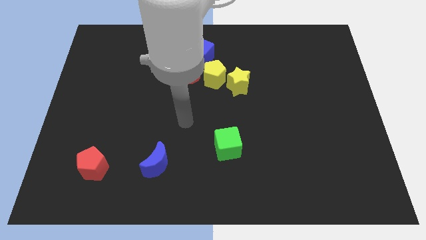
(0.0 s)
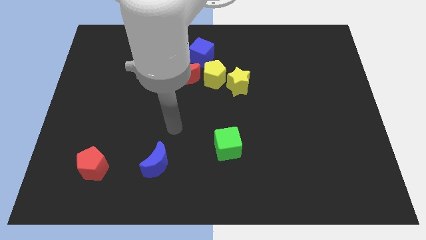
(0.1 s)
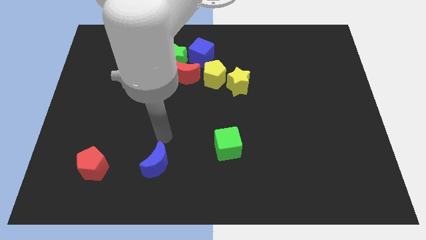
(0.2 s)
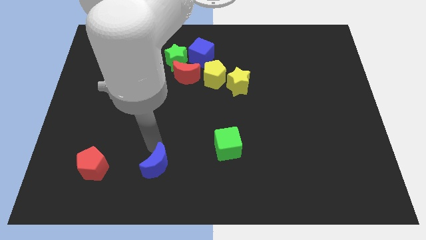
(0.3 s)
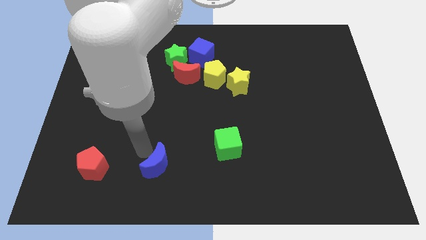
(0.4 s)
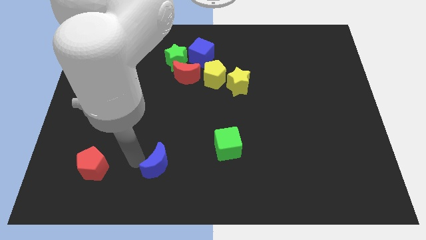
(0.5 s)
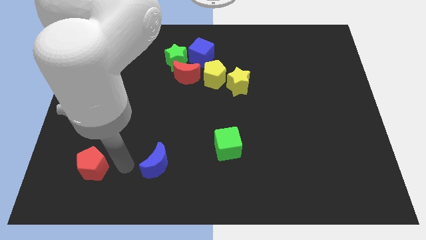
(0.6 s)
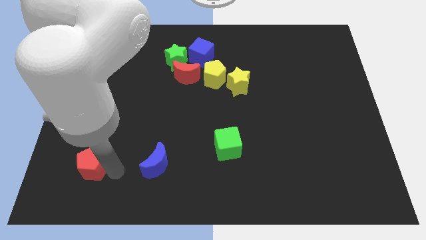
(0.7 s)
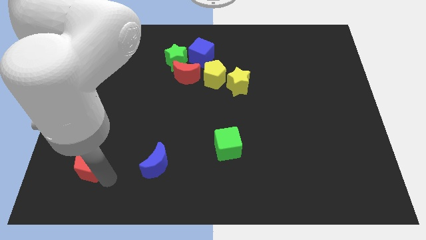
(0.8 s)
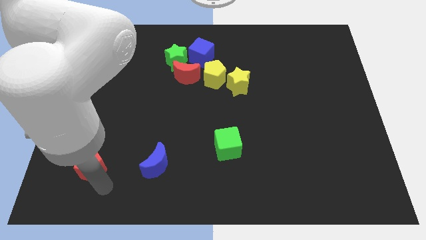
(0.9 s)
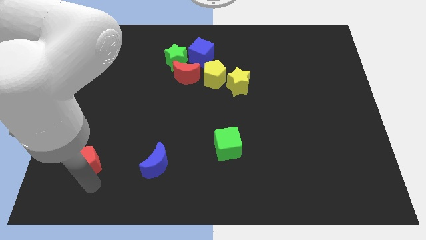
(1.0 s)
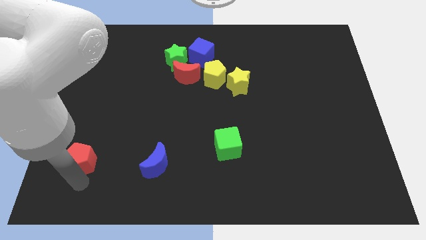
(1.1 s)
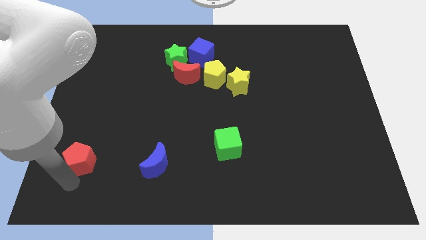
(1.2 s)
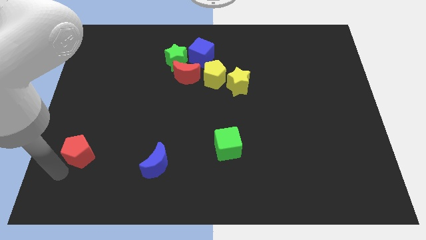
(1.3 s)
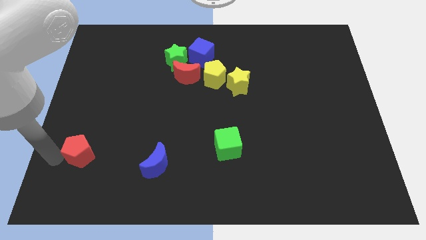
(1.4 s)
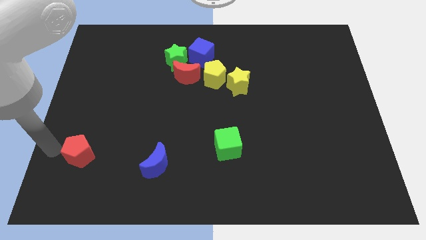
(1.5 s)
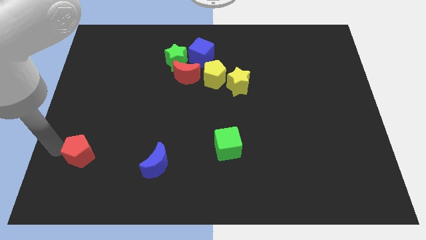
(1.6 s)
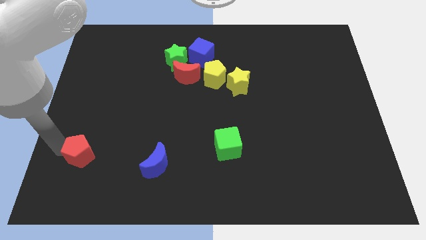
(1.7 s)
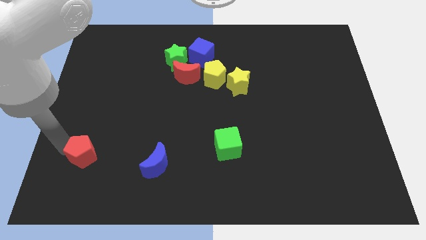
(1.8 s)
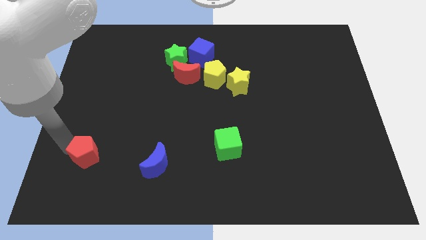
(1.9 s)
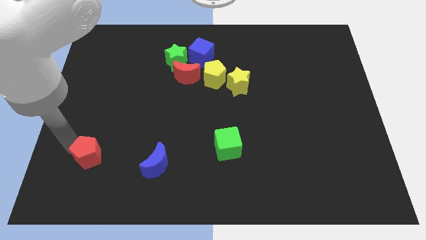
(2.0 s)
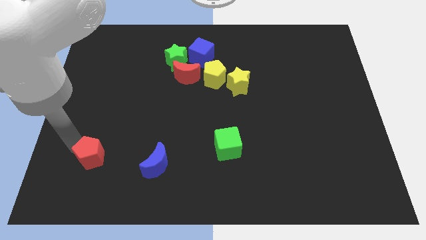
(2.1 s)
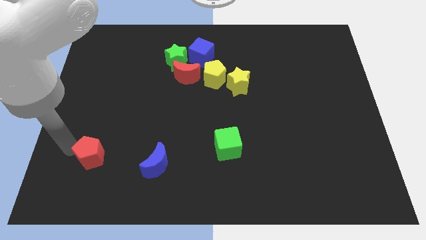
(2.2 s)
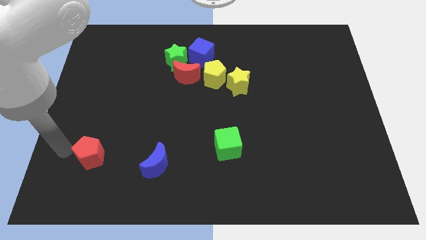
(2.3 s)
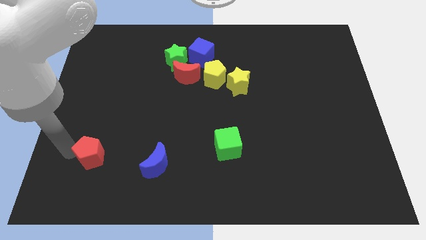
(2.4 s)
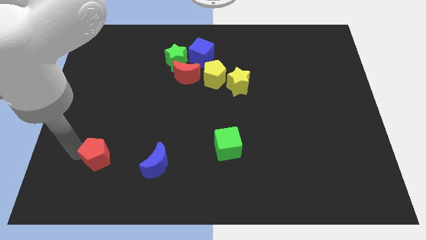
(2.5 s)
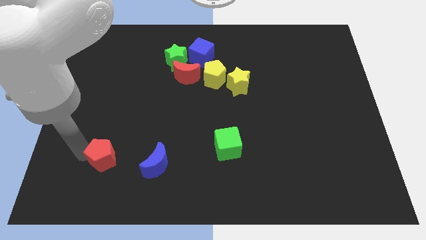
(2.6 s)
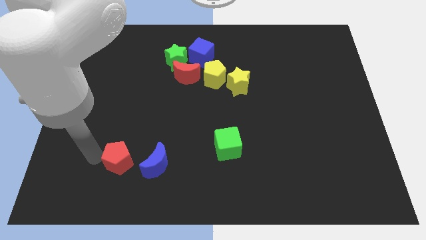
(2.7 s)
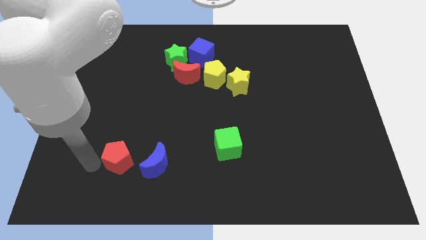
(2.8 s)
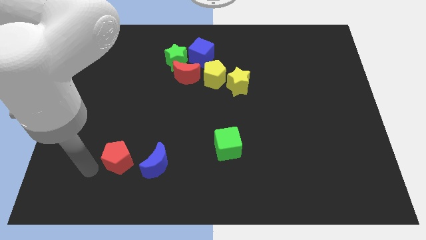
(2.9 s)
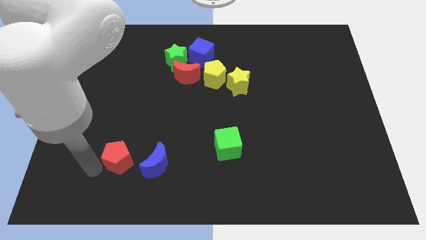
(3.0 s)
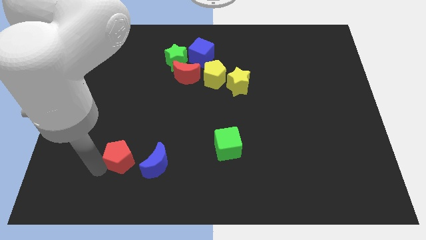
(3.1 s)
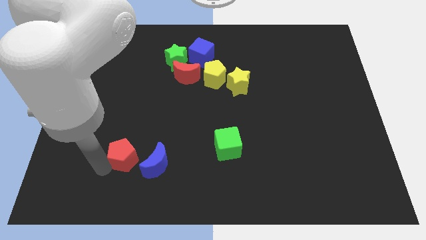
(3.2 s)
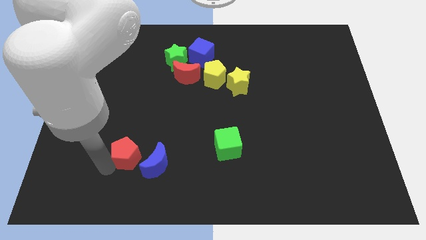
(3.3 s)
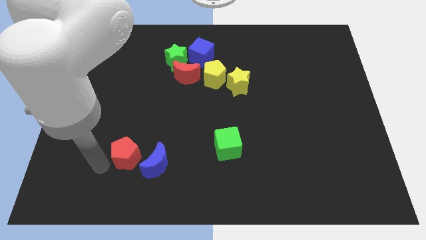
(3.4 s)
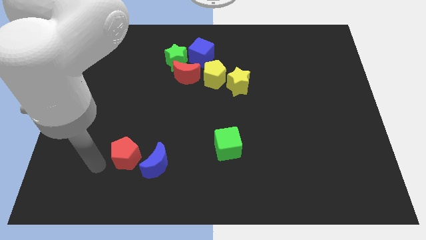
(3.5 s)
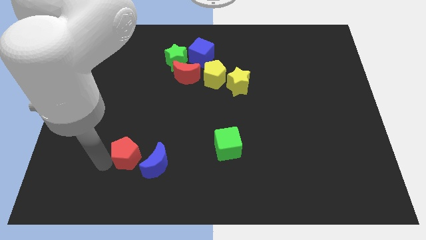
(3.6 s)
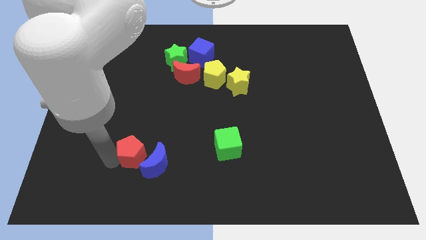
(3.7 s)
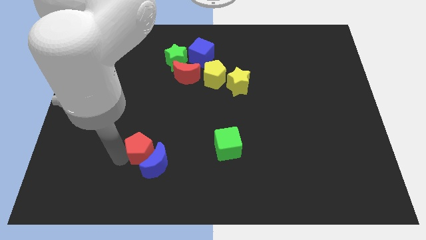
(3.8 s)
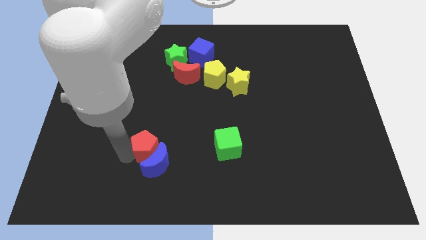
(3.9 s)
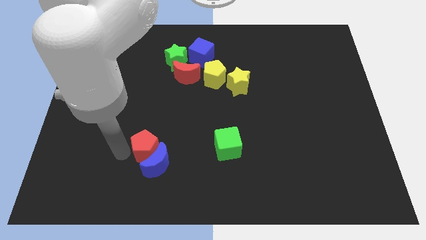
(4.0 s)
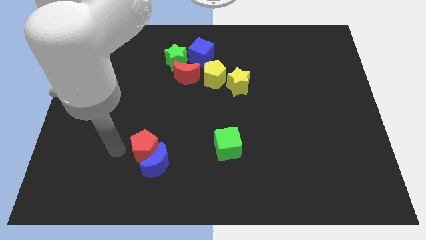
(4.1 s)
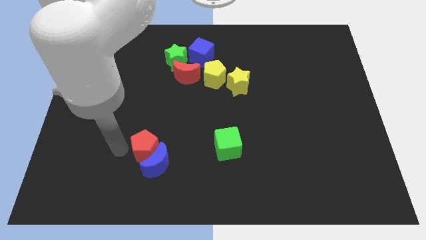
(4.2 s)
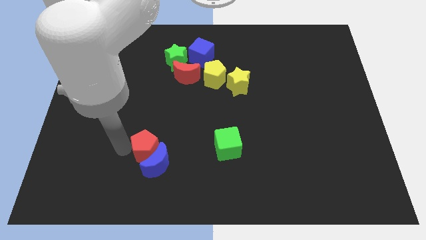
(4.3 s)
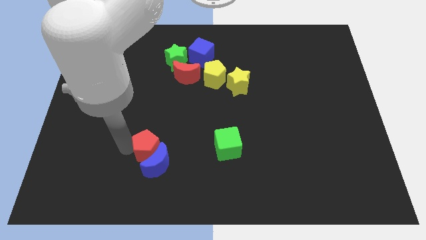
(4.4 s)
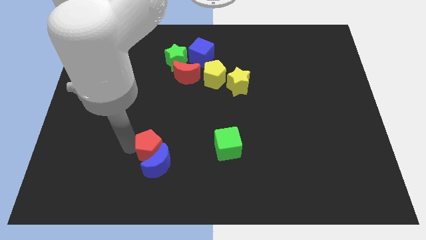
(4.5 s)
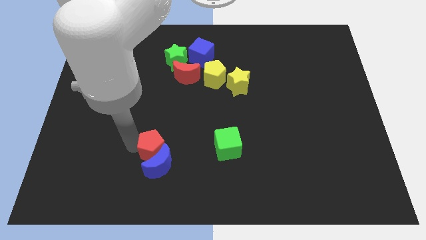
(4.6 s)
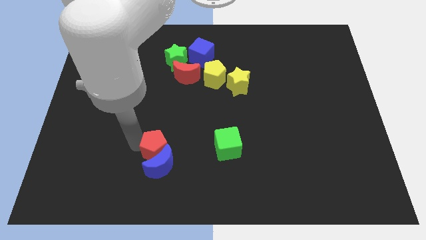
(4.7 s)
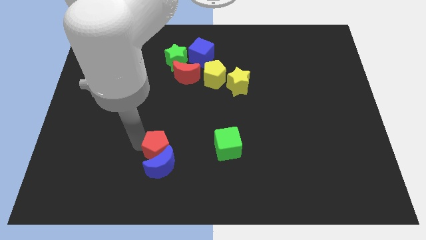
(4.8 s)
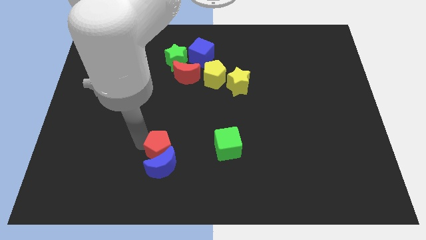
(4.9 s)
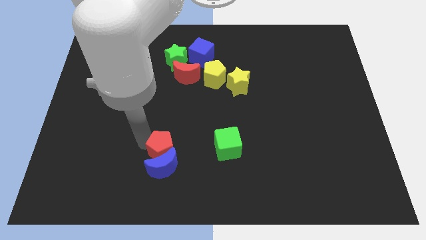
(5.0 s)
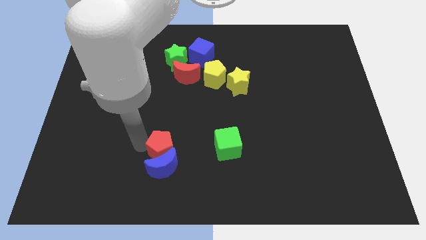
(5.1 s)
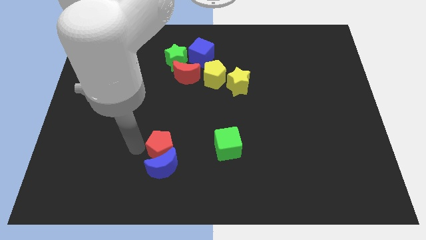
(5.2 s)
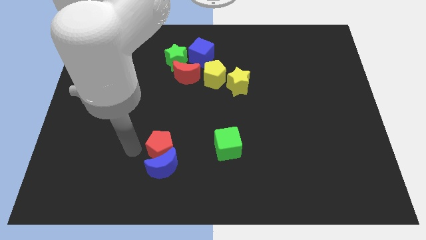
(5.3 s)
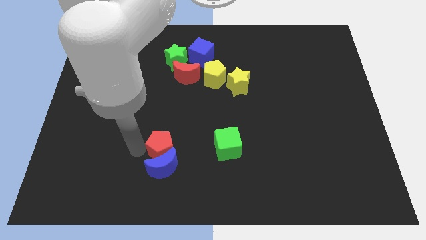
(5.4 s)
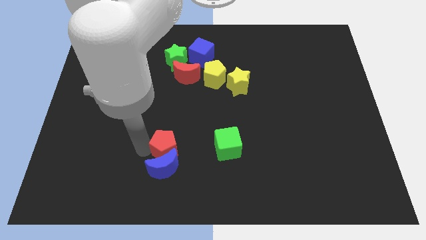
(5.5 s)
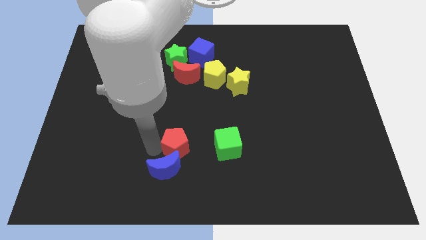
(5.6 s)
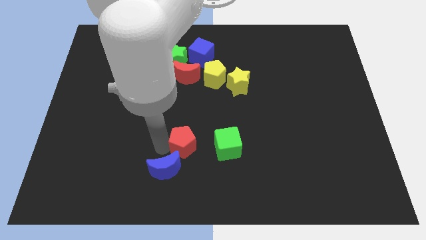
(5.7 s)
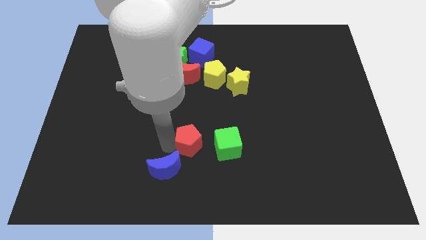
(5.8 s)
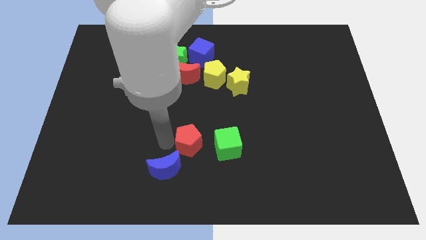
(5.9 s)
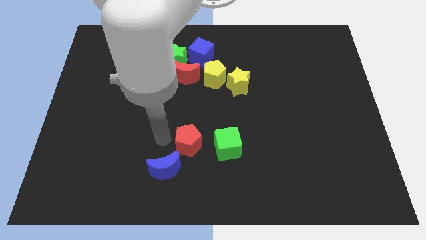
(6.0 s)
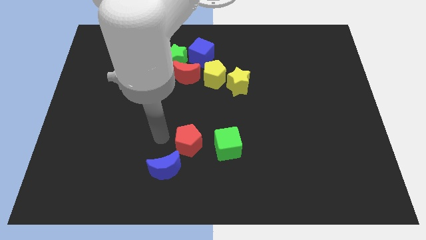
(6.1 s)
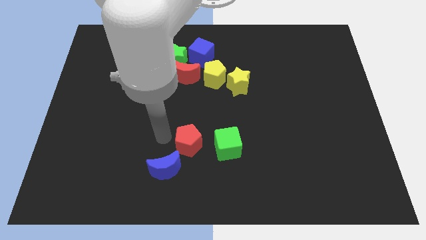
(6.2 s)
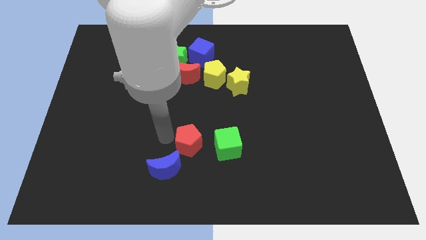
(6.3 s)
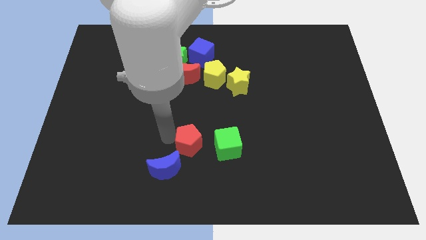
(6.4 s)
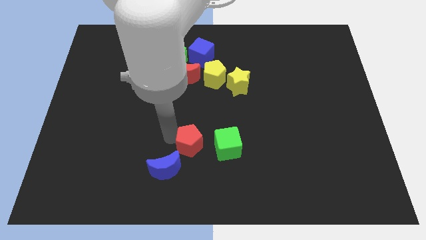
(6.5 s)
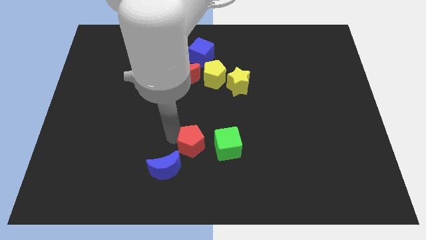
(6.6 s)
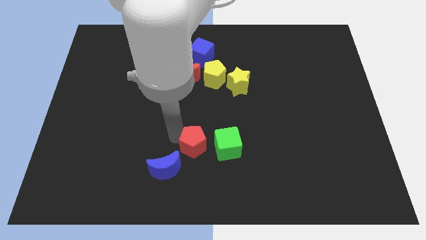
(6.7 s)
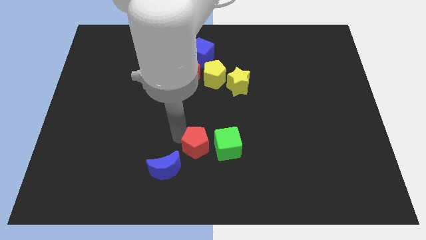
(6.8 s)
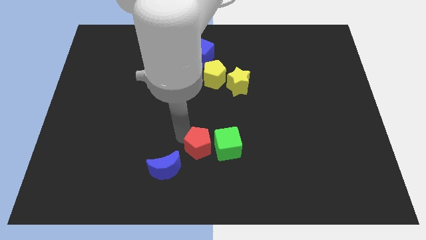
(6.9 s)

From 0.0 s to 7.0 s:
push the red pentagon next to the green cube
